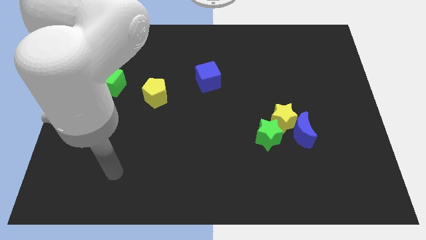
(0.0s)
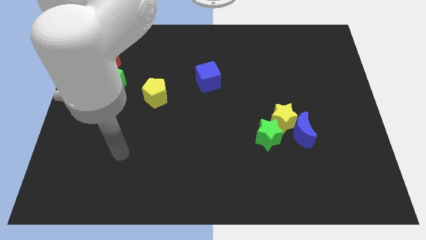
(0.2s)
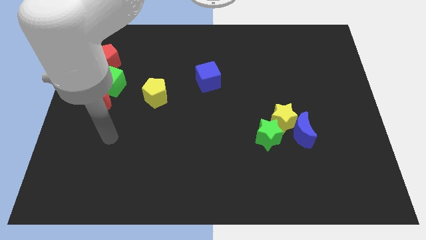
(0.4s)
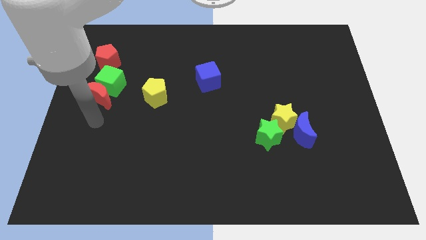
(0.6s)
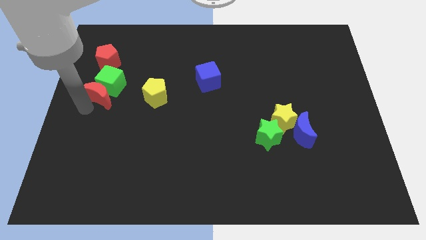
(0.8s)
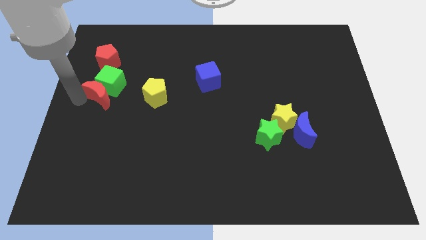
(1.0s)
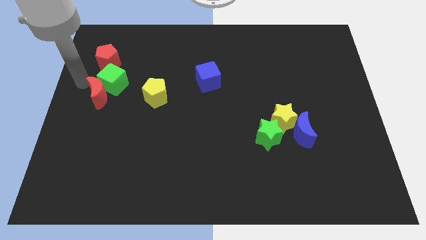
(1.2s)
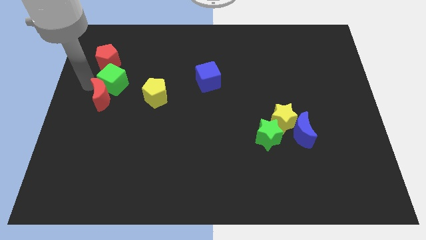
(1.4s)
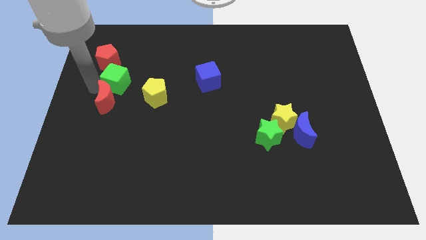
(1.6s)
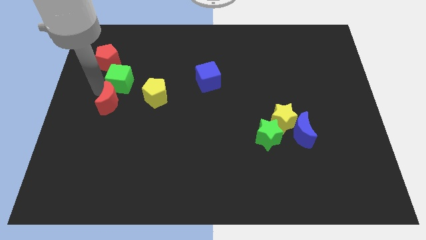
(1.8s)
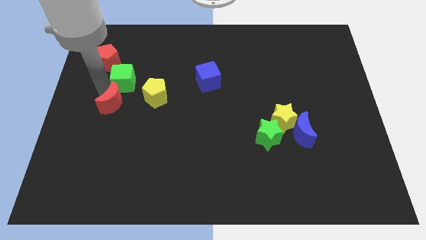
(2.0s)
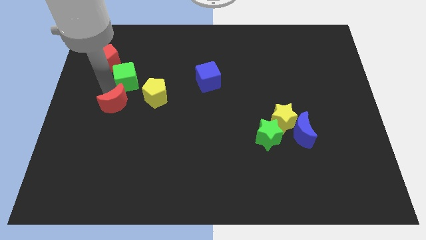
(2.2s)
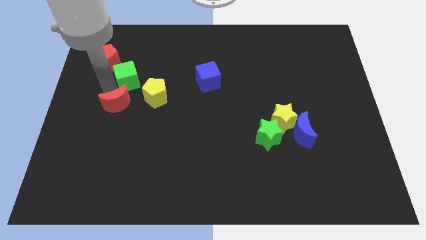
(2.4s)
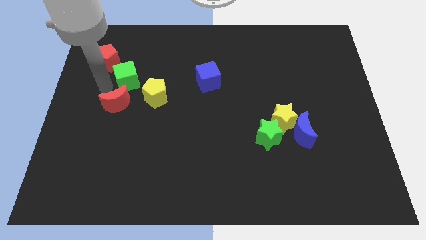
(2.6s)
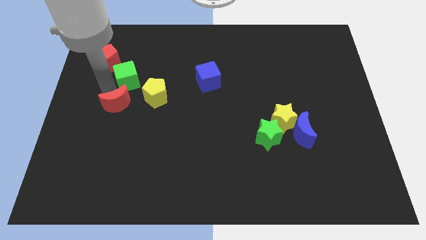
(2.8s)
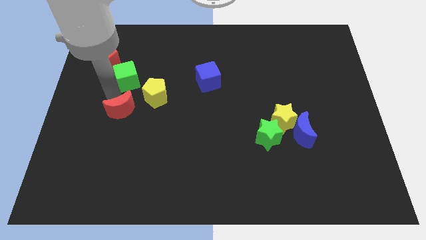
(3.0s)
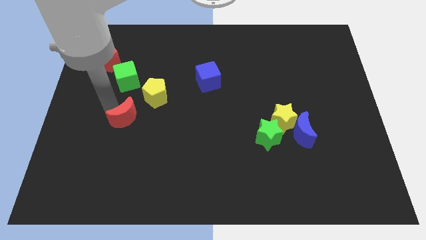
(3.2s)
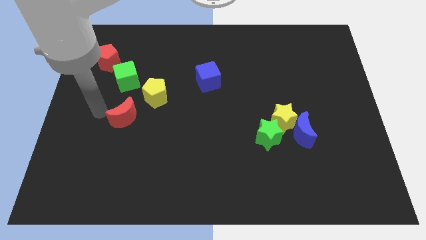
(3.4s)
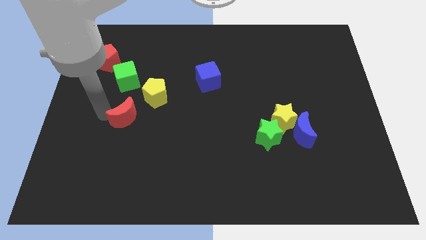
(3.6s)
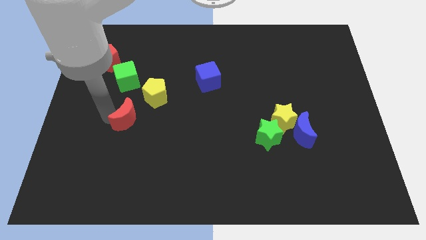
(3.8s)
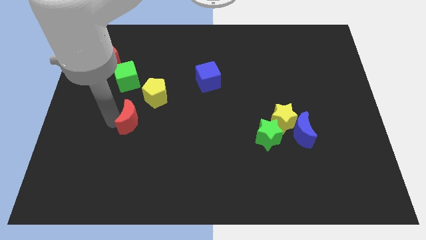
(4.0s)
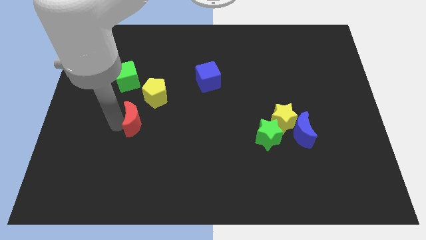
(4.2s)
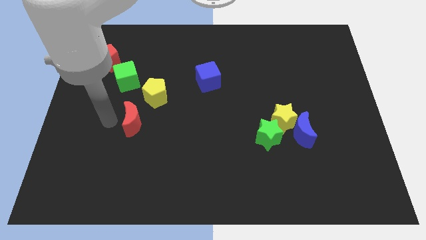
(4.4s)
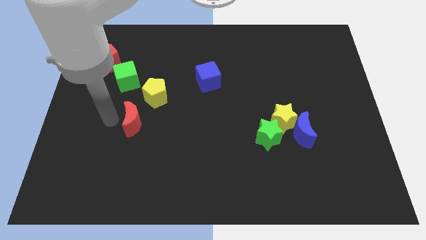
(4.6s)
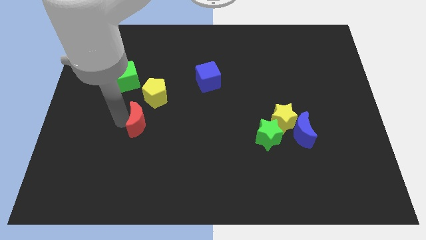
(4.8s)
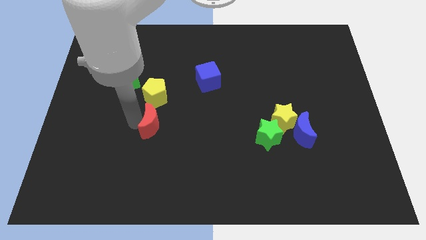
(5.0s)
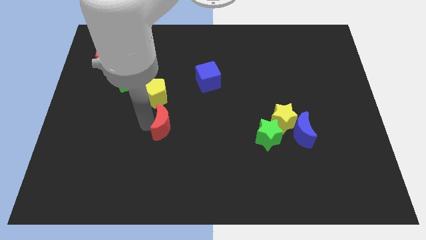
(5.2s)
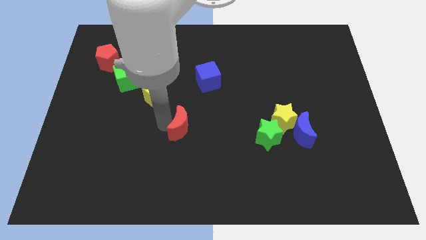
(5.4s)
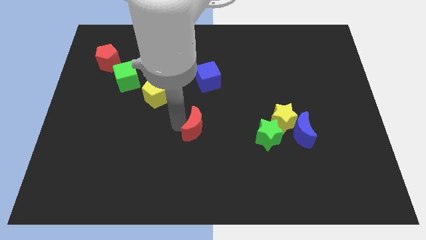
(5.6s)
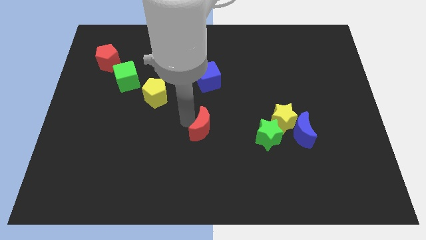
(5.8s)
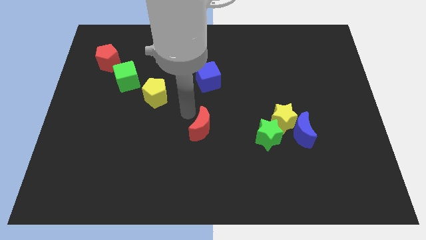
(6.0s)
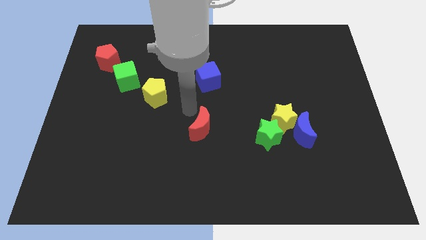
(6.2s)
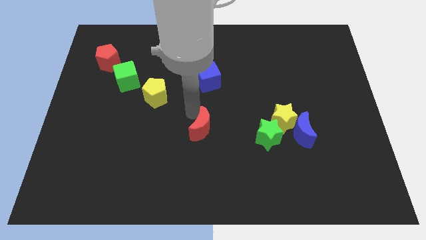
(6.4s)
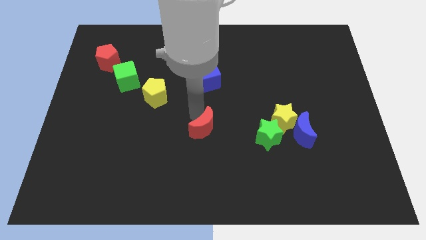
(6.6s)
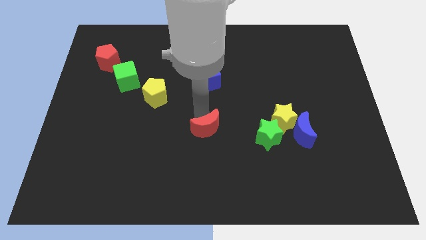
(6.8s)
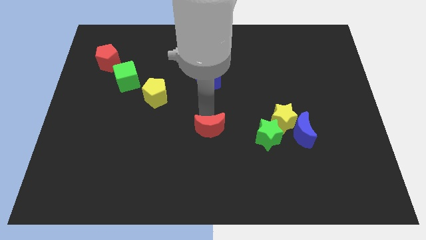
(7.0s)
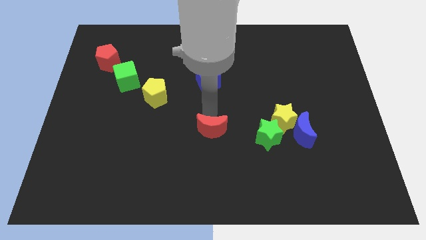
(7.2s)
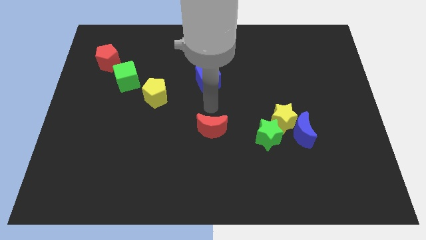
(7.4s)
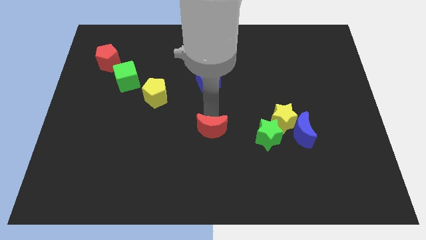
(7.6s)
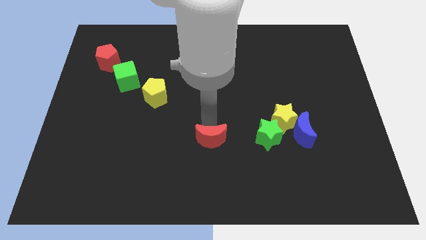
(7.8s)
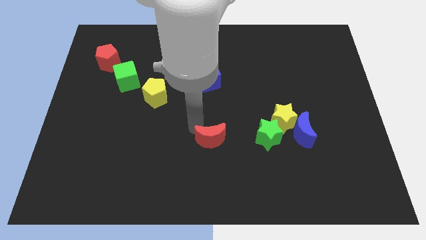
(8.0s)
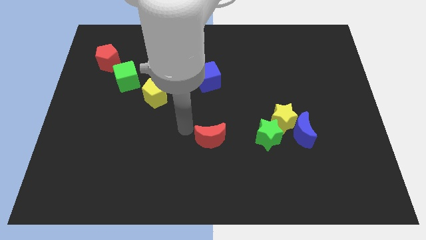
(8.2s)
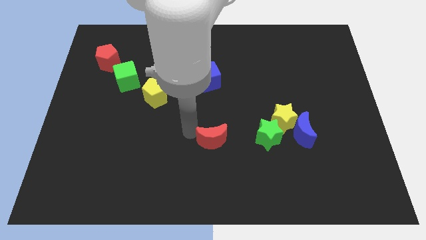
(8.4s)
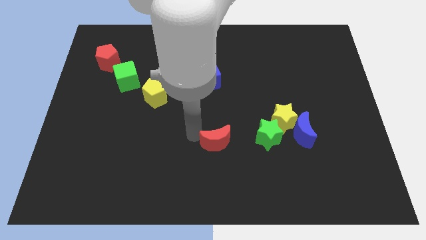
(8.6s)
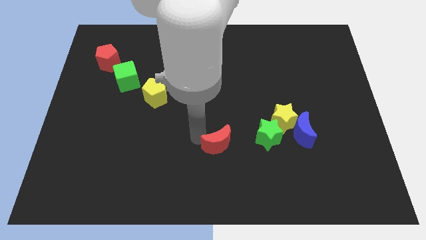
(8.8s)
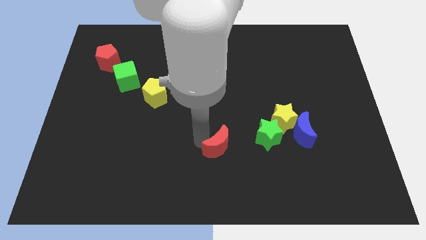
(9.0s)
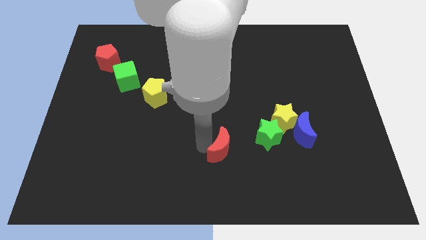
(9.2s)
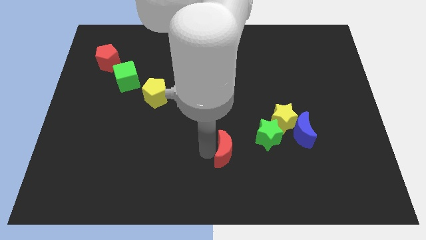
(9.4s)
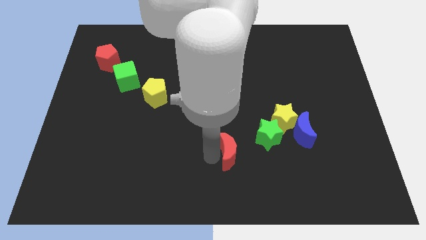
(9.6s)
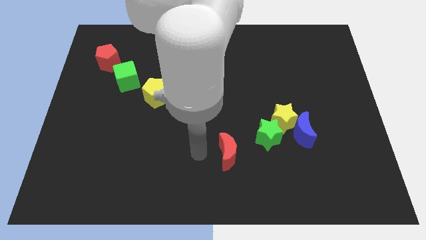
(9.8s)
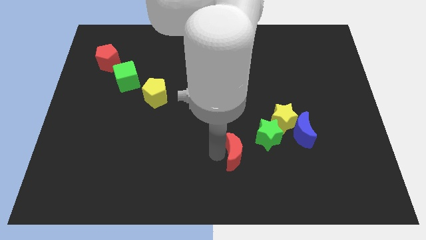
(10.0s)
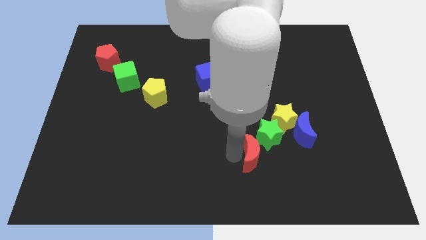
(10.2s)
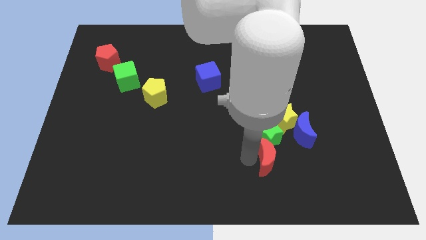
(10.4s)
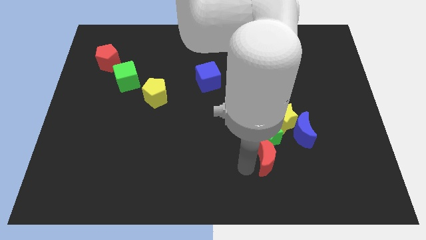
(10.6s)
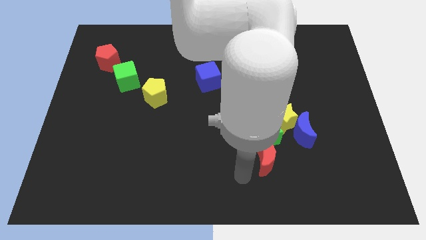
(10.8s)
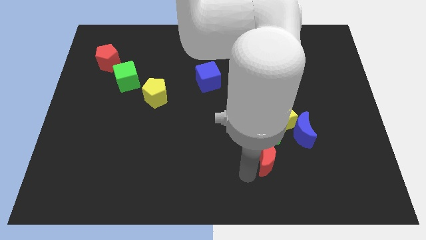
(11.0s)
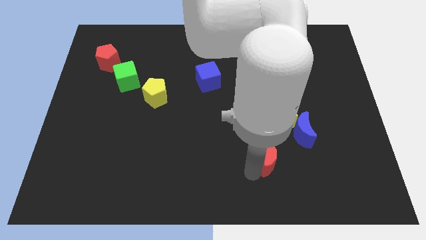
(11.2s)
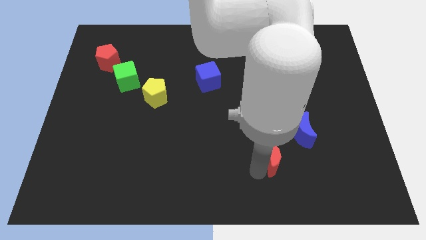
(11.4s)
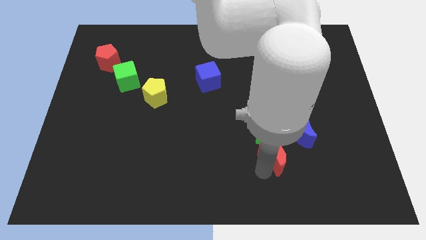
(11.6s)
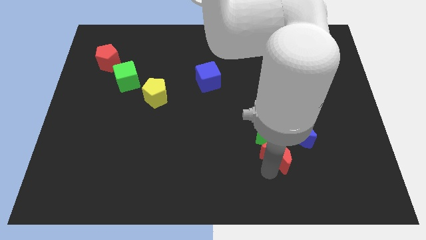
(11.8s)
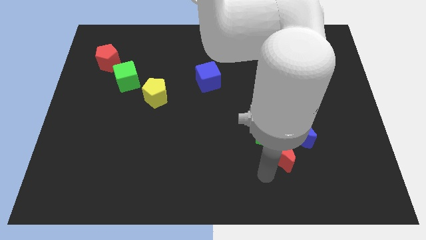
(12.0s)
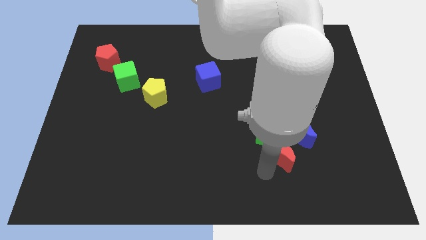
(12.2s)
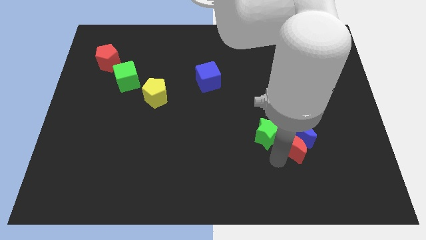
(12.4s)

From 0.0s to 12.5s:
put the red moon close to the blue moon
